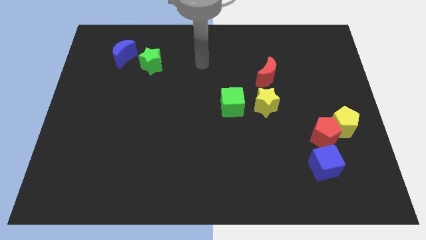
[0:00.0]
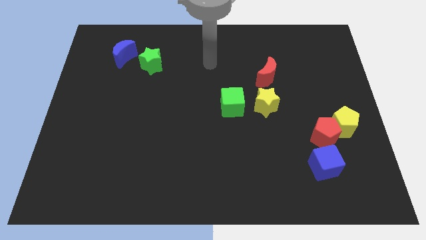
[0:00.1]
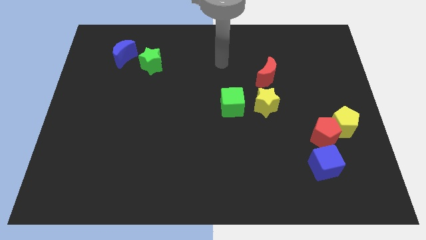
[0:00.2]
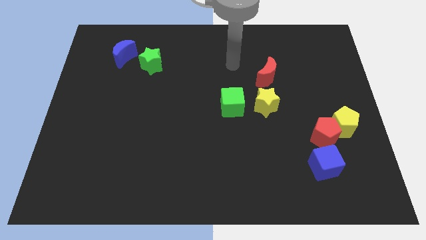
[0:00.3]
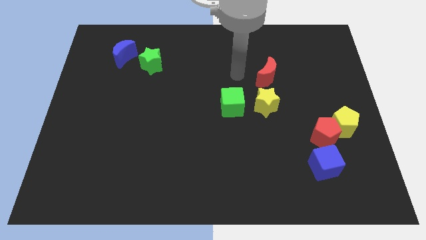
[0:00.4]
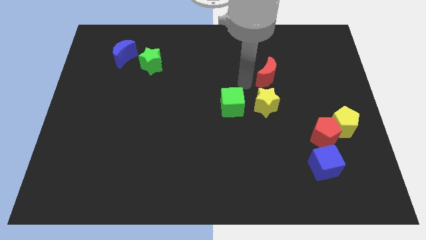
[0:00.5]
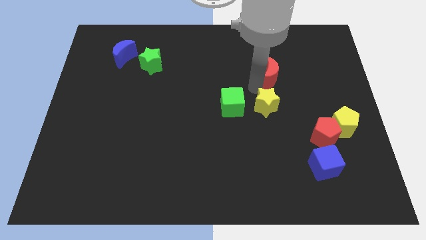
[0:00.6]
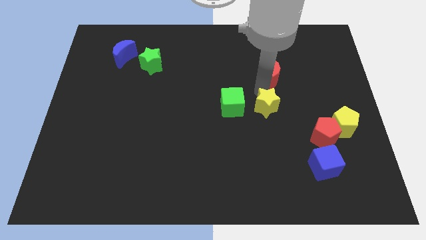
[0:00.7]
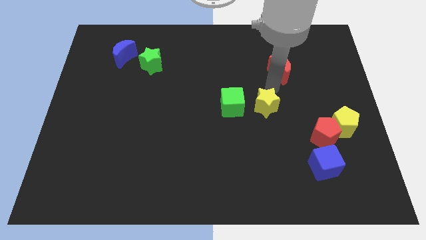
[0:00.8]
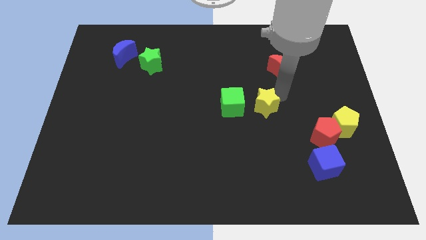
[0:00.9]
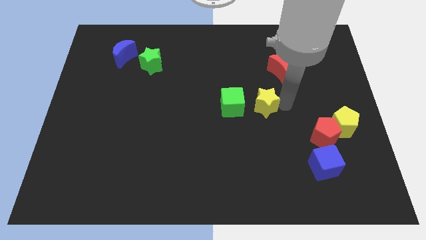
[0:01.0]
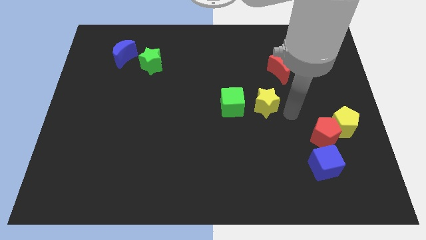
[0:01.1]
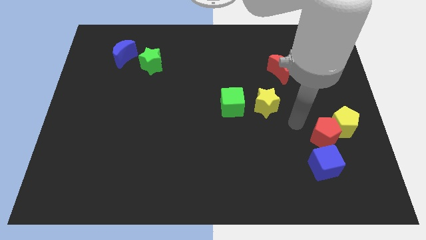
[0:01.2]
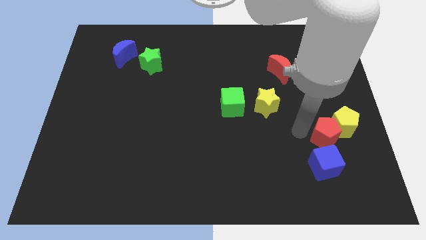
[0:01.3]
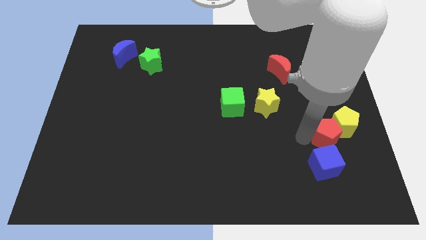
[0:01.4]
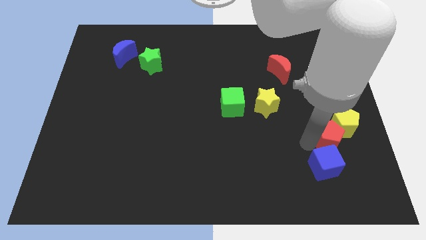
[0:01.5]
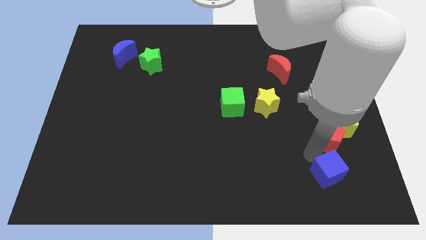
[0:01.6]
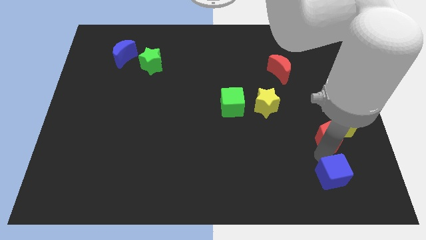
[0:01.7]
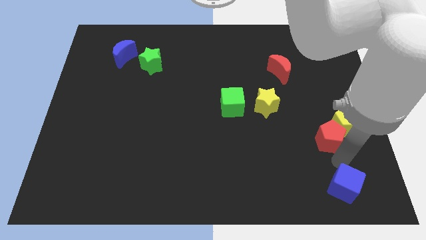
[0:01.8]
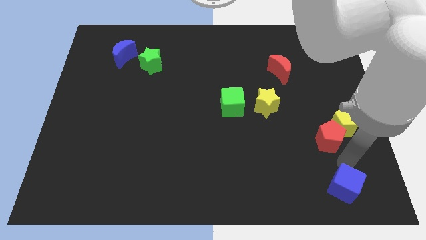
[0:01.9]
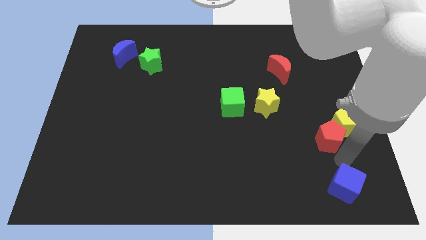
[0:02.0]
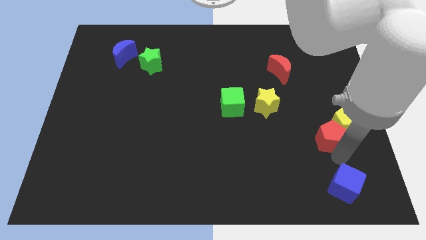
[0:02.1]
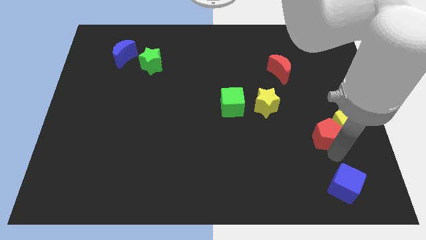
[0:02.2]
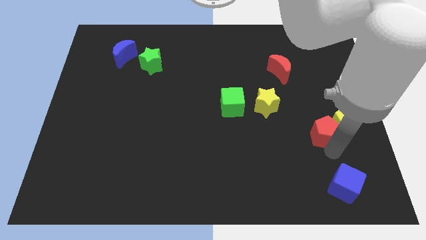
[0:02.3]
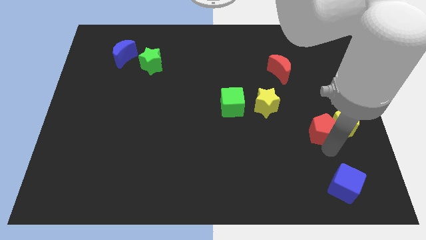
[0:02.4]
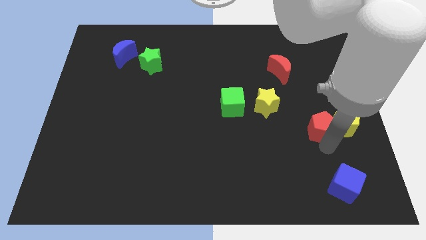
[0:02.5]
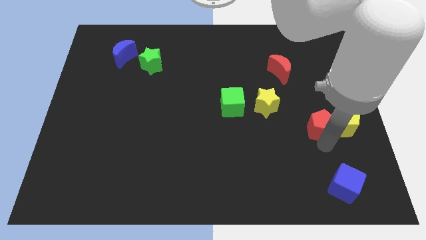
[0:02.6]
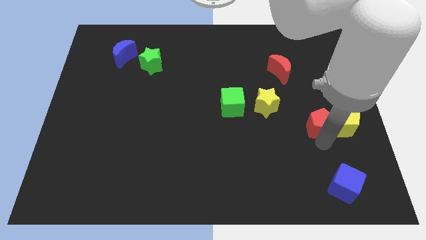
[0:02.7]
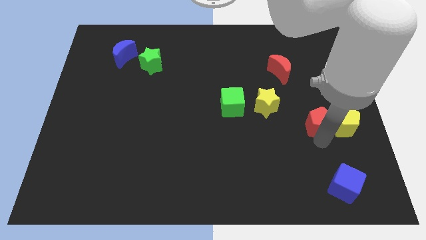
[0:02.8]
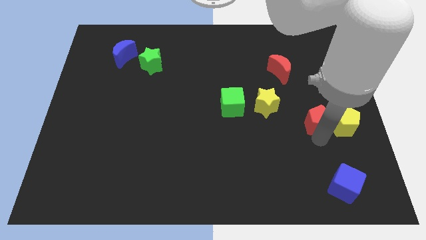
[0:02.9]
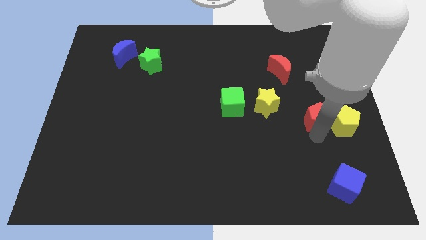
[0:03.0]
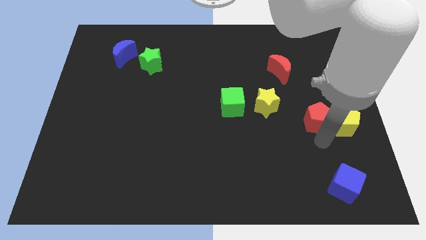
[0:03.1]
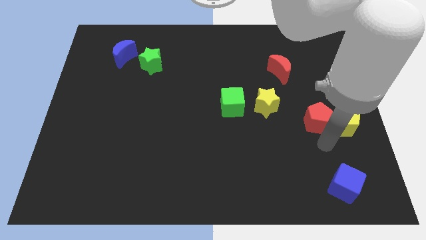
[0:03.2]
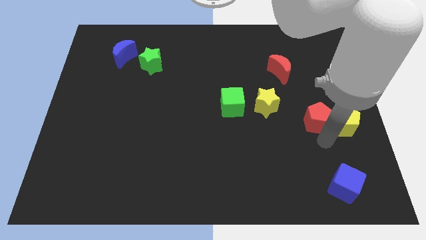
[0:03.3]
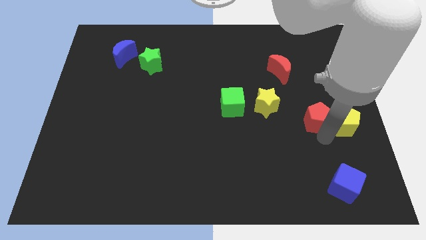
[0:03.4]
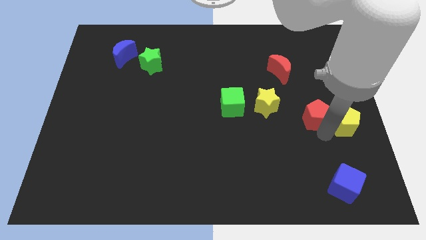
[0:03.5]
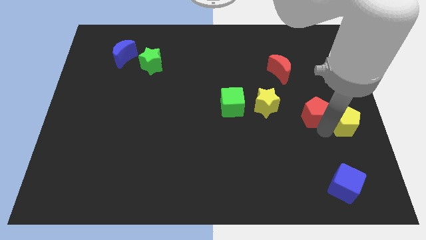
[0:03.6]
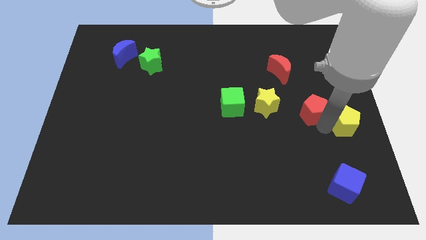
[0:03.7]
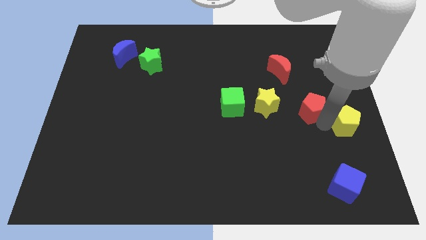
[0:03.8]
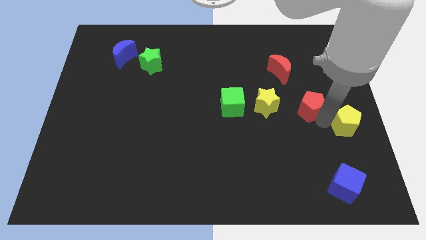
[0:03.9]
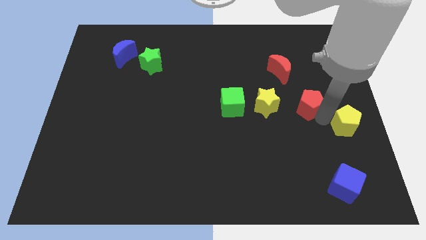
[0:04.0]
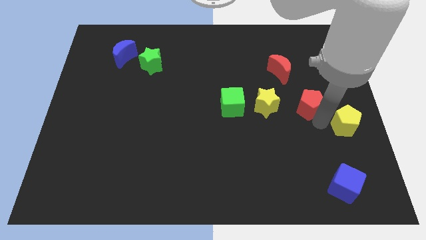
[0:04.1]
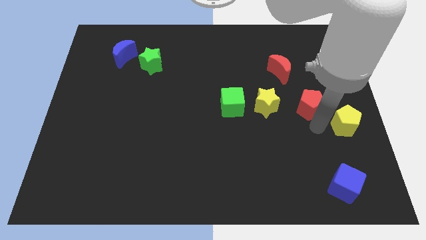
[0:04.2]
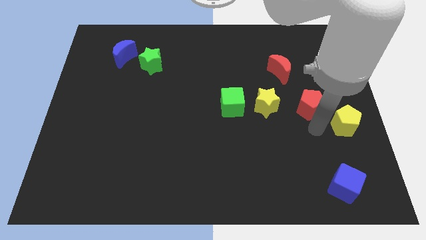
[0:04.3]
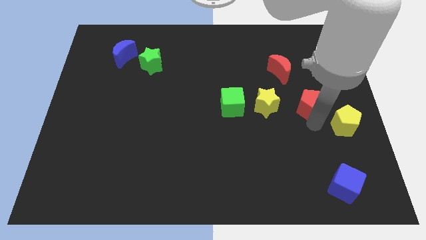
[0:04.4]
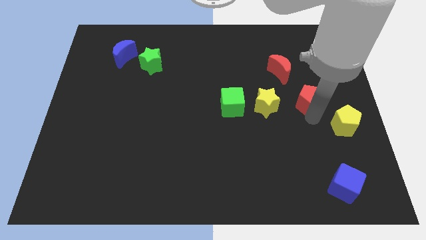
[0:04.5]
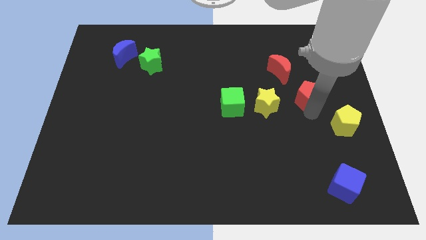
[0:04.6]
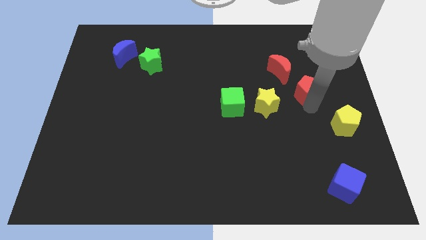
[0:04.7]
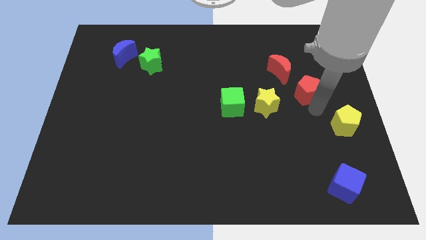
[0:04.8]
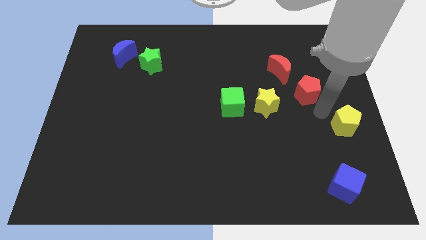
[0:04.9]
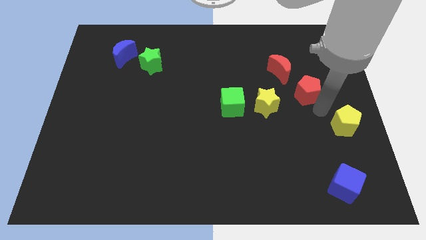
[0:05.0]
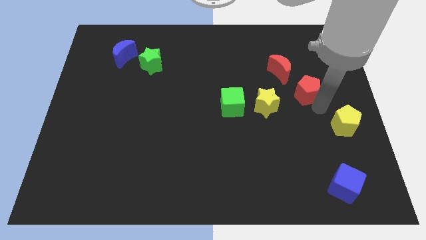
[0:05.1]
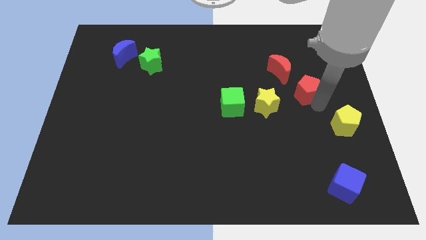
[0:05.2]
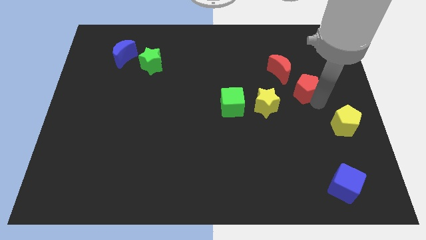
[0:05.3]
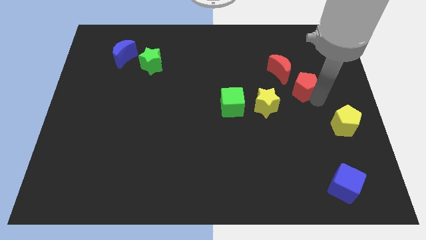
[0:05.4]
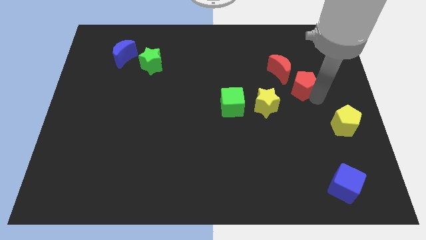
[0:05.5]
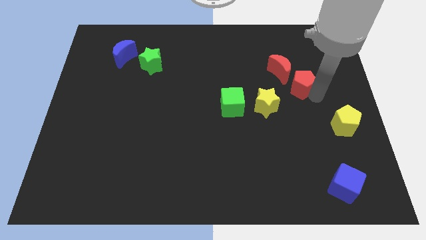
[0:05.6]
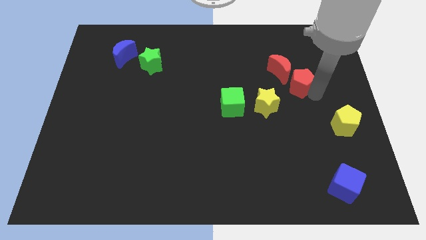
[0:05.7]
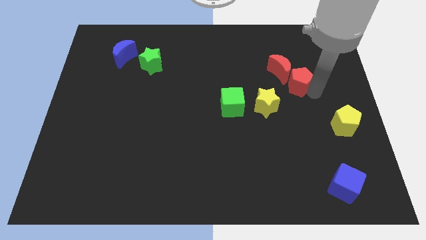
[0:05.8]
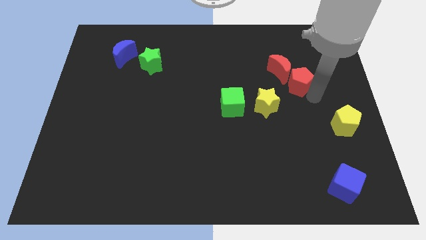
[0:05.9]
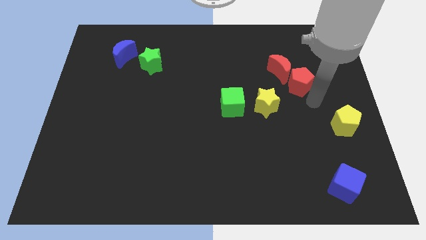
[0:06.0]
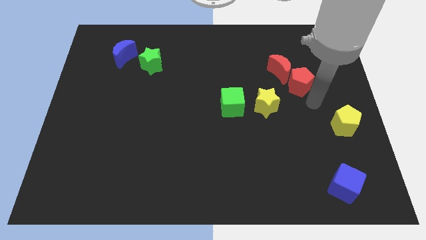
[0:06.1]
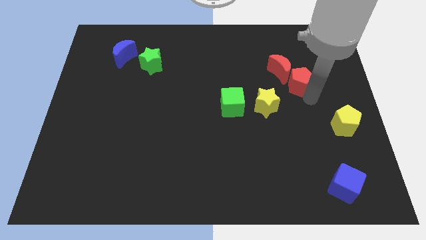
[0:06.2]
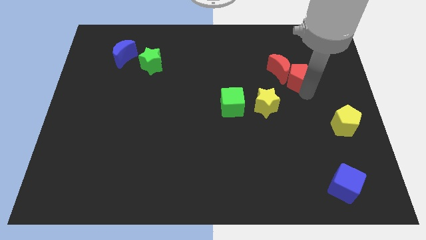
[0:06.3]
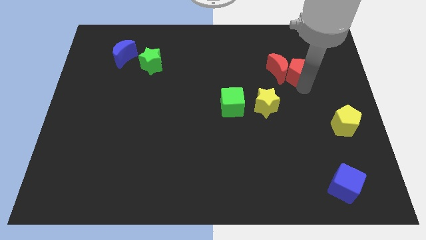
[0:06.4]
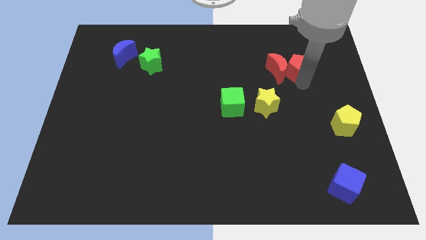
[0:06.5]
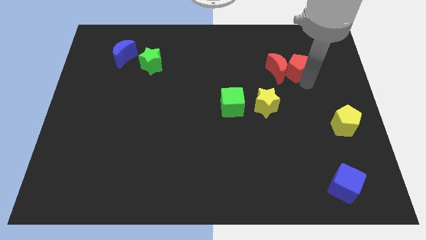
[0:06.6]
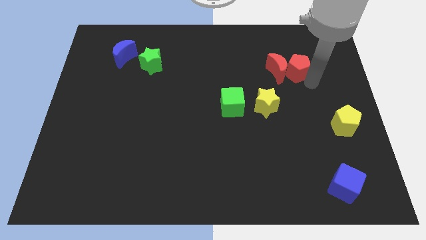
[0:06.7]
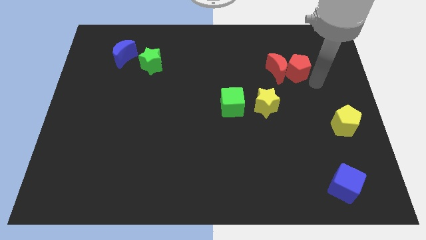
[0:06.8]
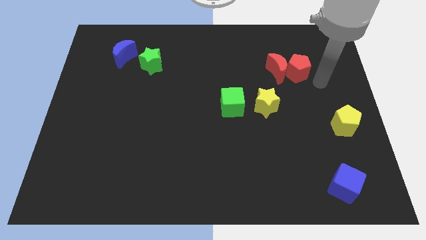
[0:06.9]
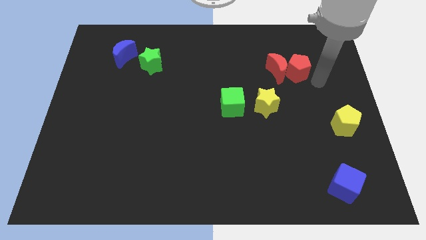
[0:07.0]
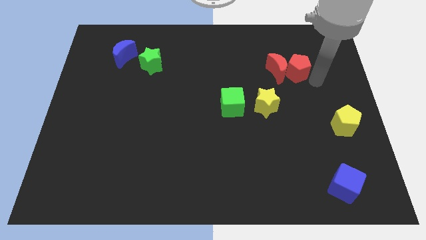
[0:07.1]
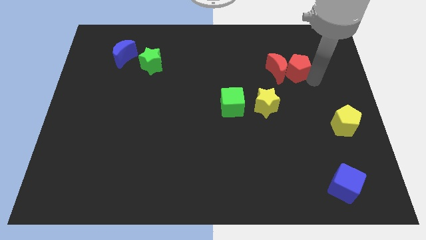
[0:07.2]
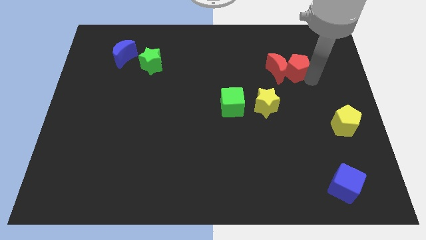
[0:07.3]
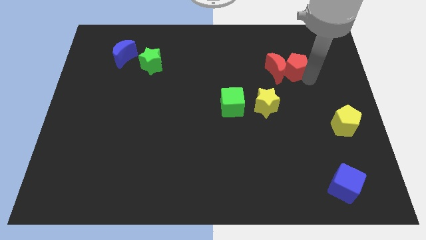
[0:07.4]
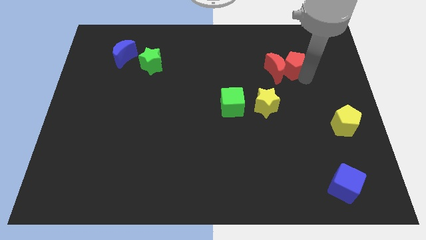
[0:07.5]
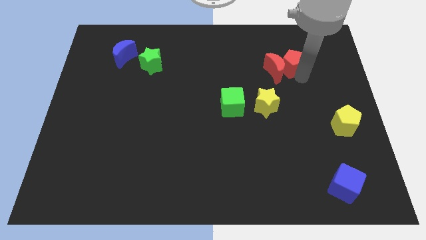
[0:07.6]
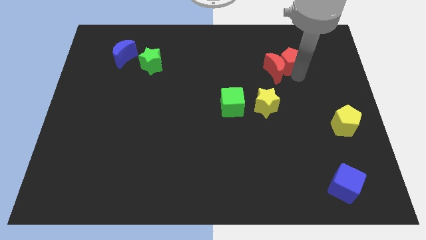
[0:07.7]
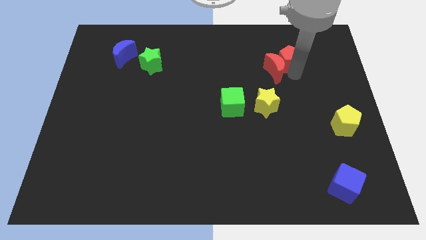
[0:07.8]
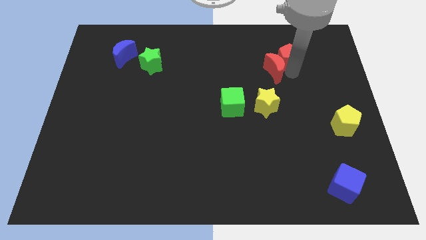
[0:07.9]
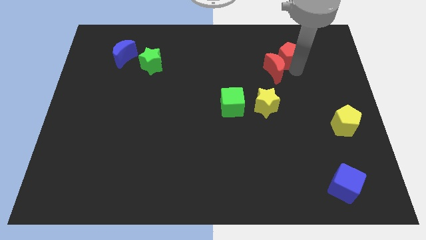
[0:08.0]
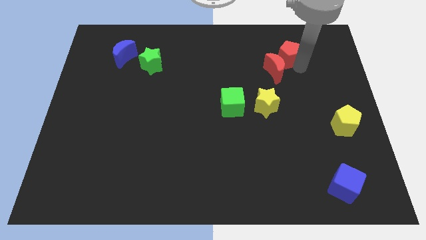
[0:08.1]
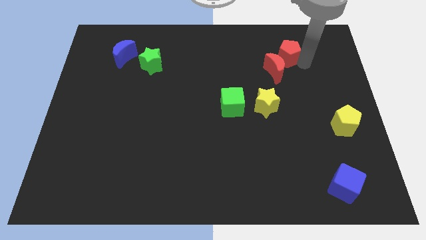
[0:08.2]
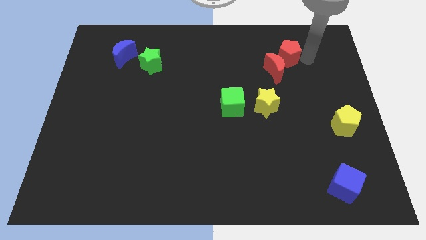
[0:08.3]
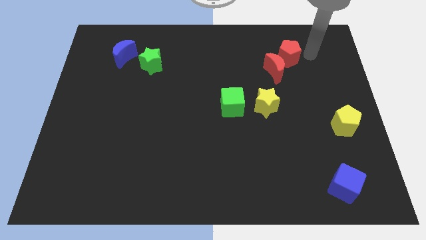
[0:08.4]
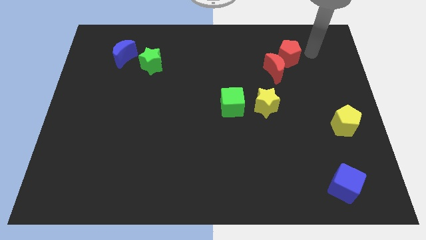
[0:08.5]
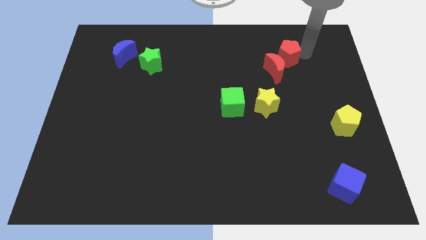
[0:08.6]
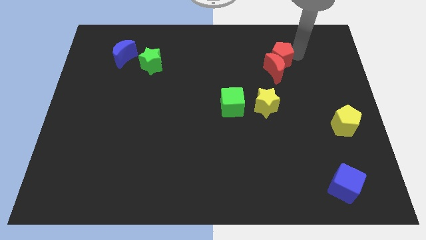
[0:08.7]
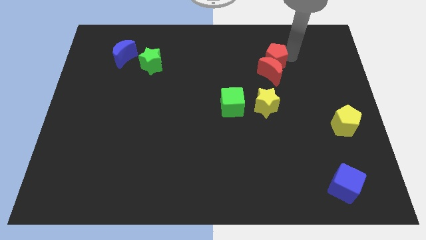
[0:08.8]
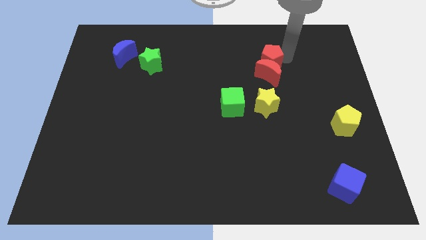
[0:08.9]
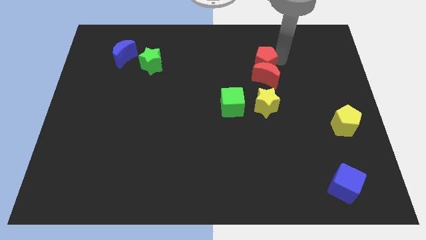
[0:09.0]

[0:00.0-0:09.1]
slide the red pentagon diagonally upwards and to the left
